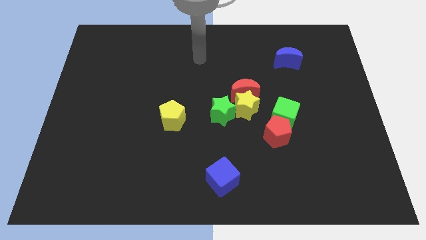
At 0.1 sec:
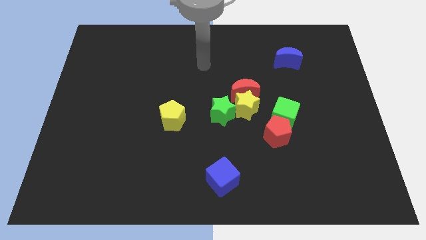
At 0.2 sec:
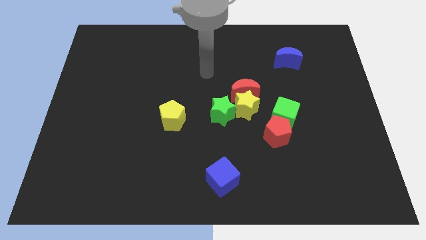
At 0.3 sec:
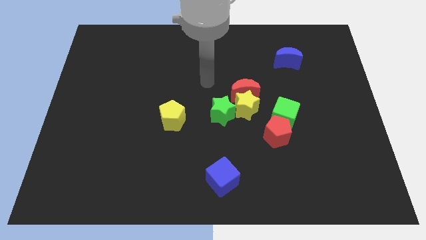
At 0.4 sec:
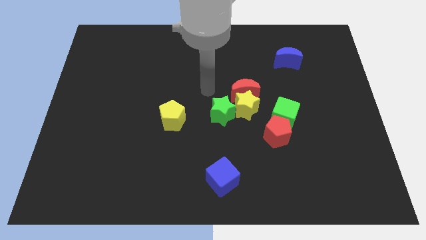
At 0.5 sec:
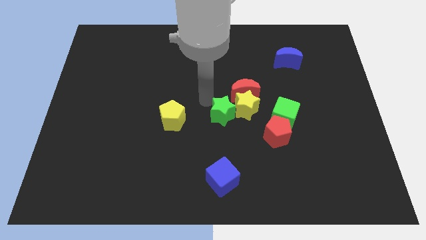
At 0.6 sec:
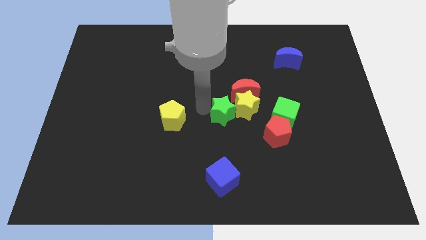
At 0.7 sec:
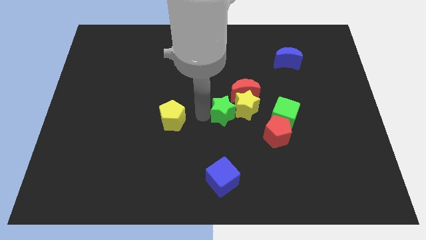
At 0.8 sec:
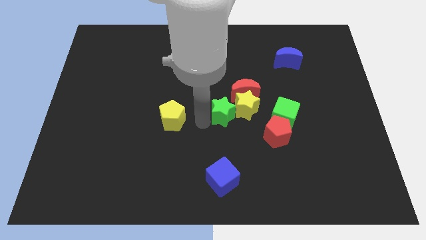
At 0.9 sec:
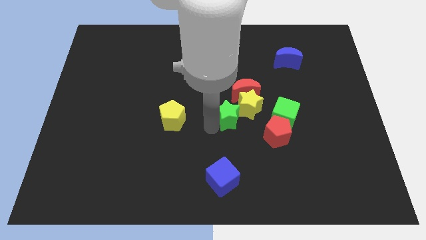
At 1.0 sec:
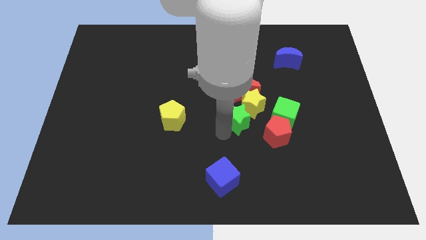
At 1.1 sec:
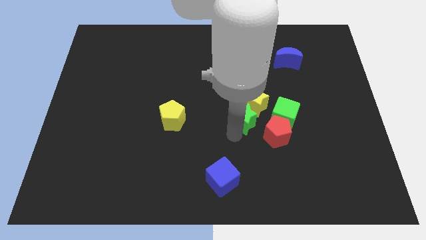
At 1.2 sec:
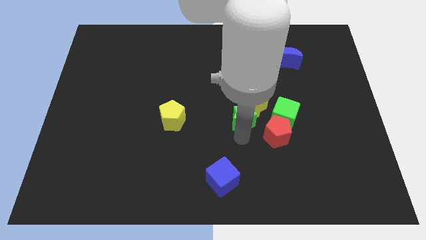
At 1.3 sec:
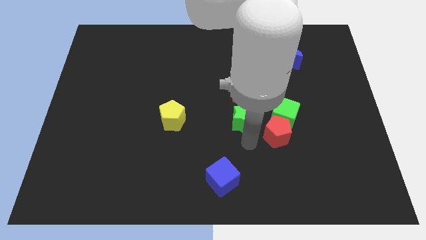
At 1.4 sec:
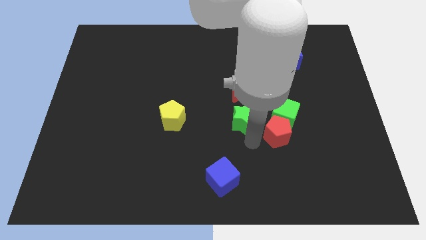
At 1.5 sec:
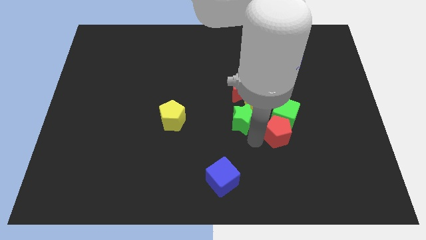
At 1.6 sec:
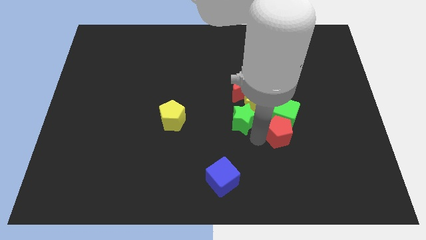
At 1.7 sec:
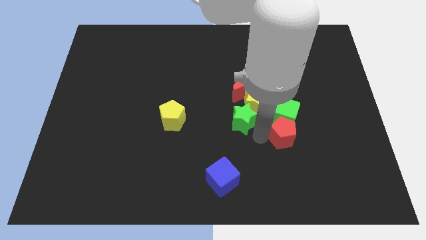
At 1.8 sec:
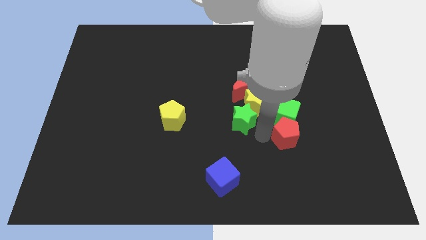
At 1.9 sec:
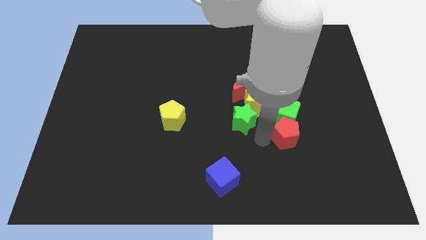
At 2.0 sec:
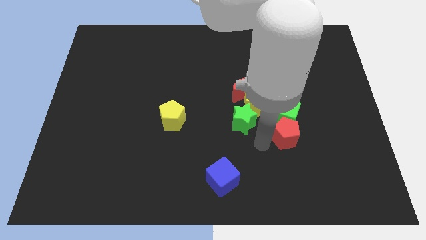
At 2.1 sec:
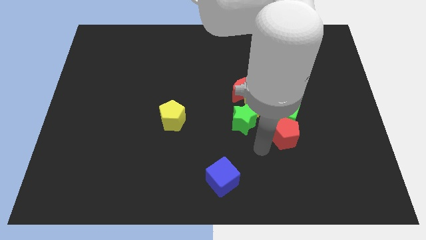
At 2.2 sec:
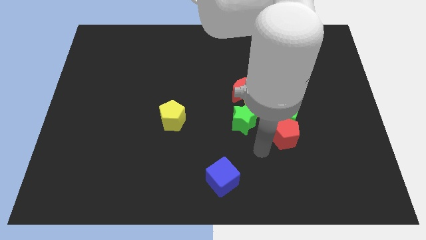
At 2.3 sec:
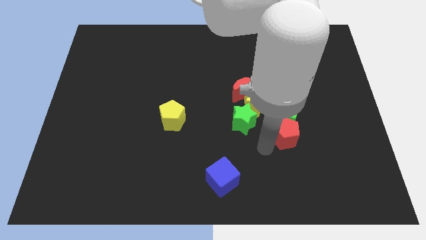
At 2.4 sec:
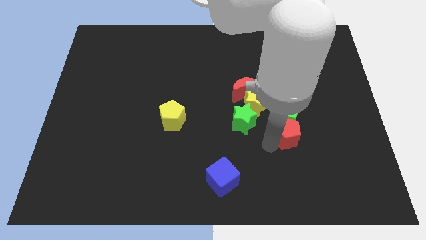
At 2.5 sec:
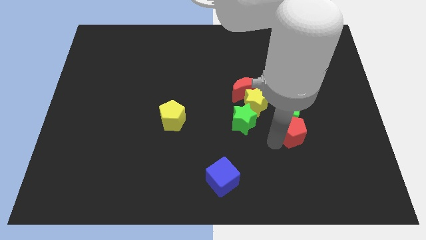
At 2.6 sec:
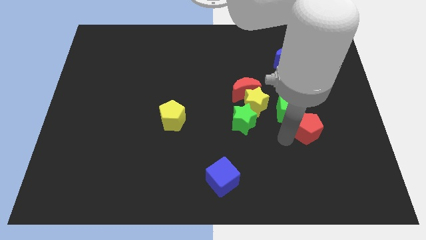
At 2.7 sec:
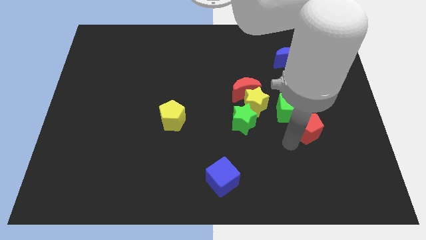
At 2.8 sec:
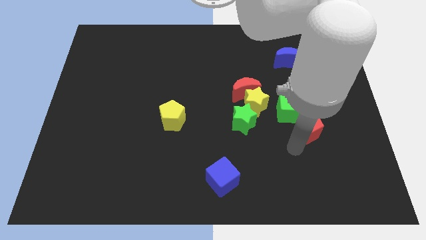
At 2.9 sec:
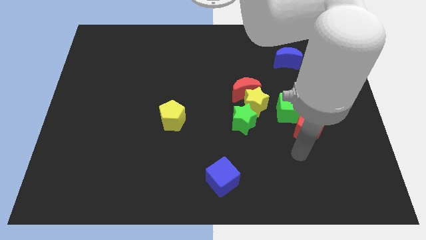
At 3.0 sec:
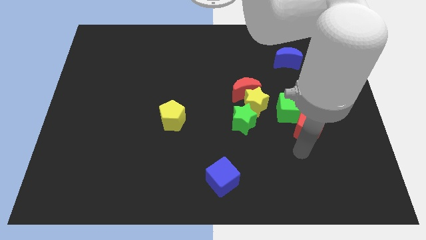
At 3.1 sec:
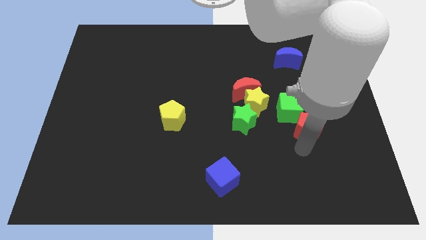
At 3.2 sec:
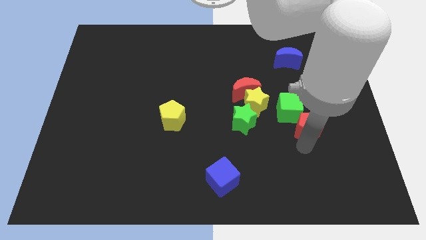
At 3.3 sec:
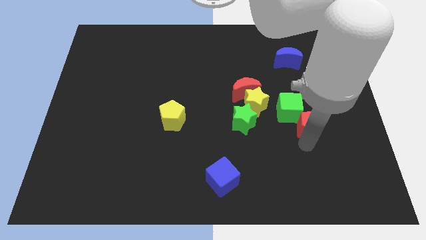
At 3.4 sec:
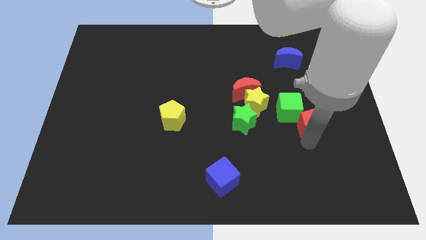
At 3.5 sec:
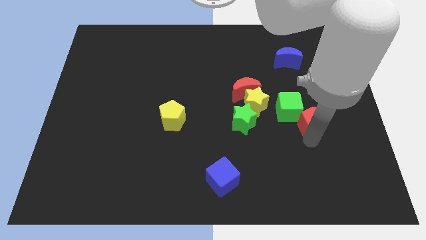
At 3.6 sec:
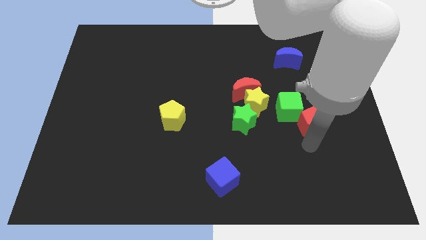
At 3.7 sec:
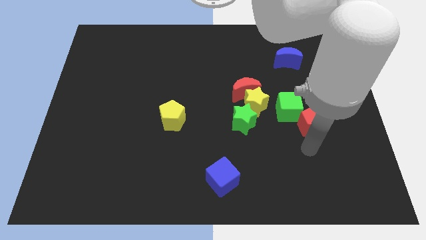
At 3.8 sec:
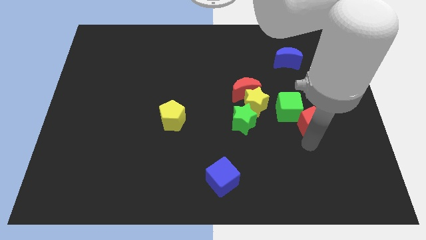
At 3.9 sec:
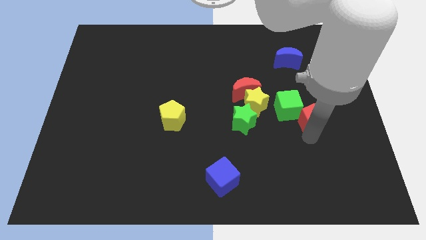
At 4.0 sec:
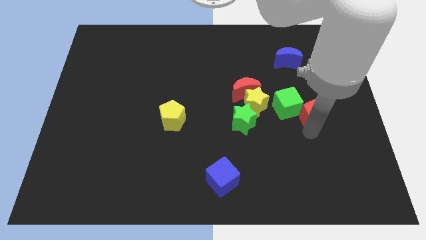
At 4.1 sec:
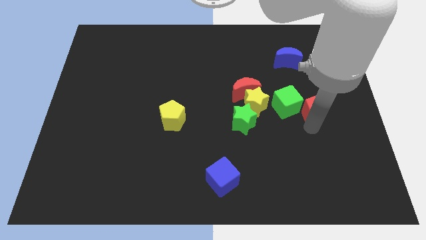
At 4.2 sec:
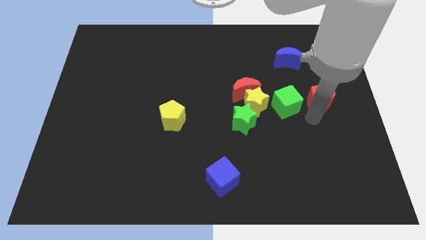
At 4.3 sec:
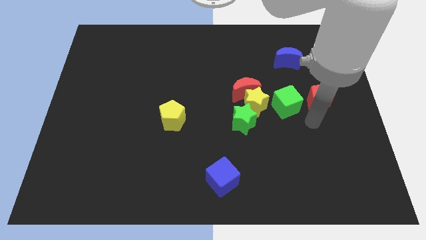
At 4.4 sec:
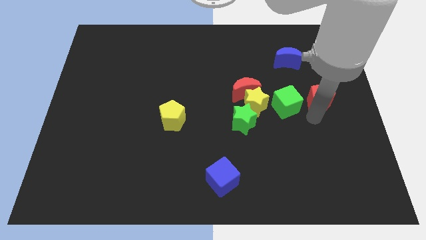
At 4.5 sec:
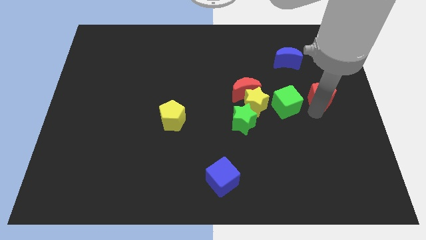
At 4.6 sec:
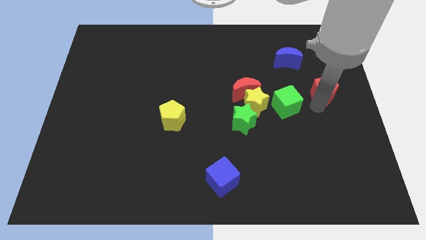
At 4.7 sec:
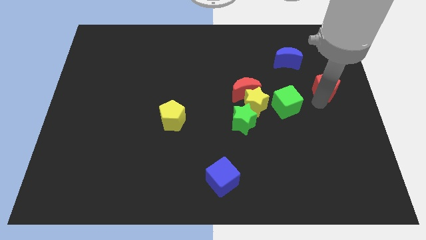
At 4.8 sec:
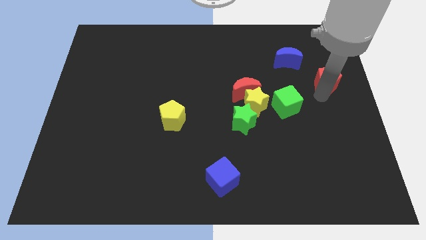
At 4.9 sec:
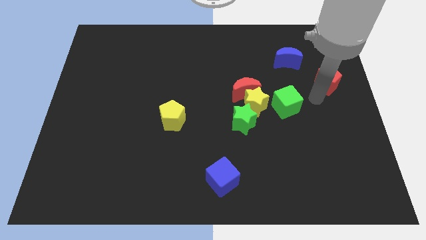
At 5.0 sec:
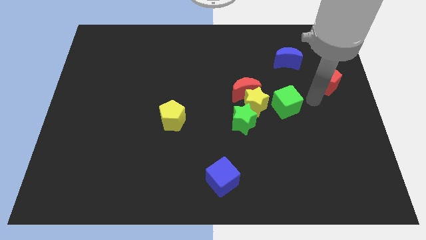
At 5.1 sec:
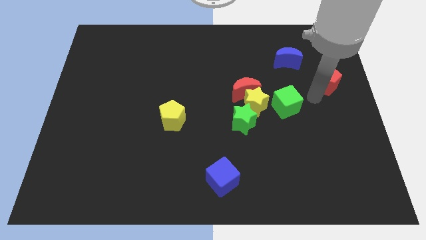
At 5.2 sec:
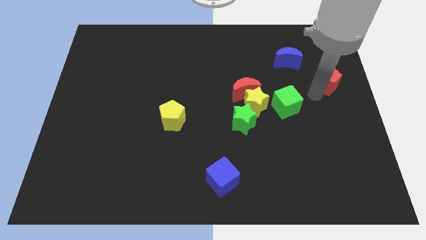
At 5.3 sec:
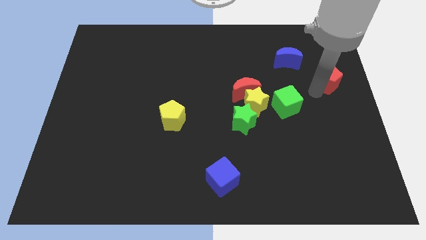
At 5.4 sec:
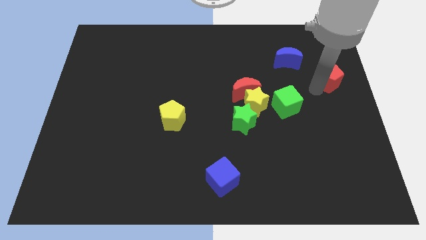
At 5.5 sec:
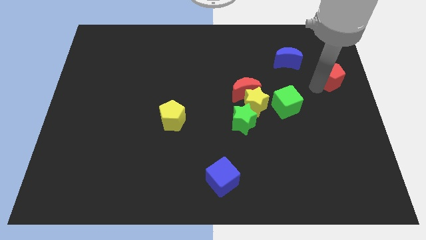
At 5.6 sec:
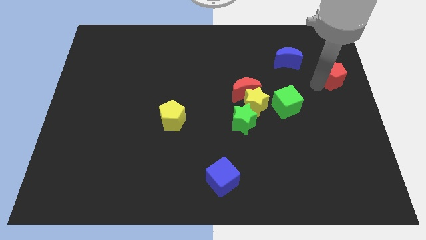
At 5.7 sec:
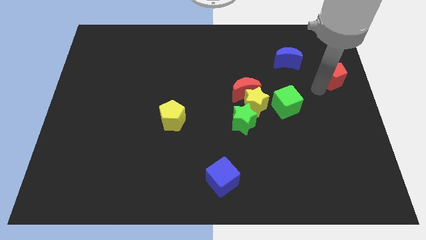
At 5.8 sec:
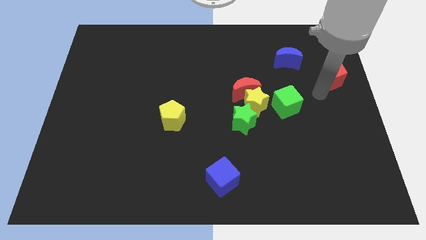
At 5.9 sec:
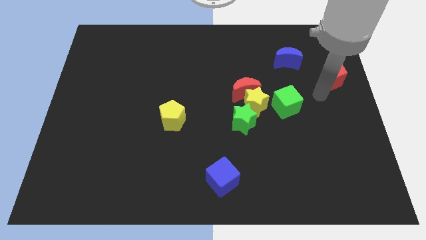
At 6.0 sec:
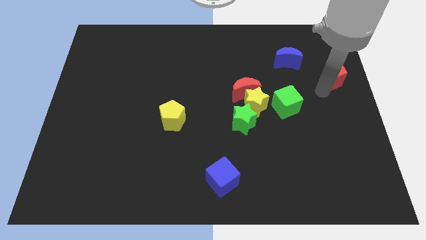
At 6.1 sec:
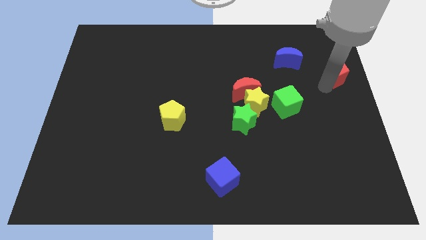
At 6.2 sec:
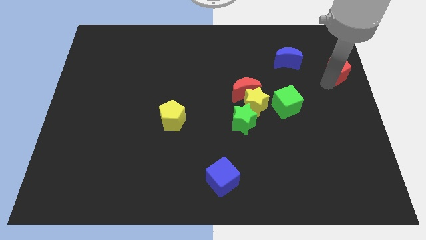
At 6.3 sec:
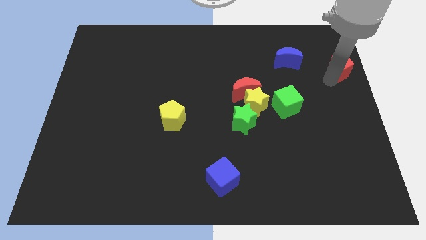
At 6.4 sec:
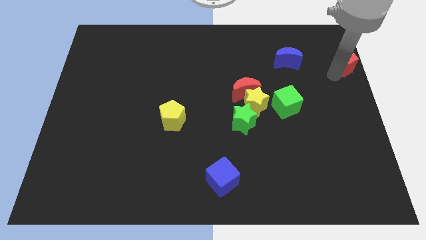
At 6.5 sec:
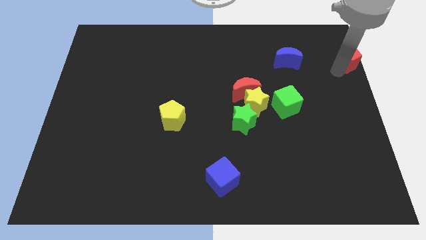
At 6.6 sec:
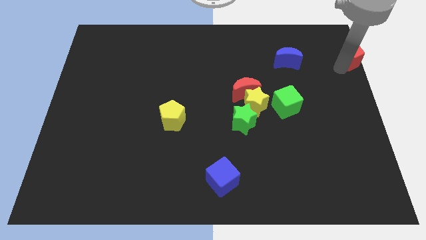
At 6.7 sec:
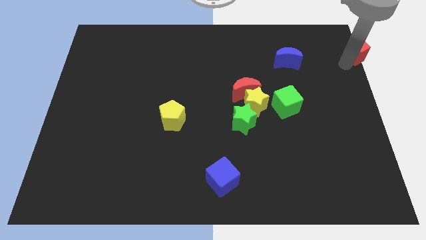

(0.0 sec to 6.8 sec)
push the red pentagon to the upper right corner
